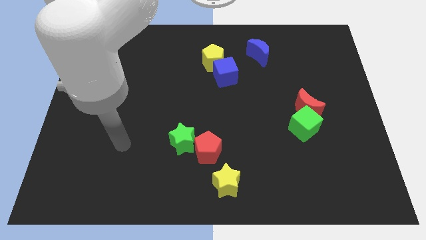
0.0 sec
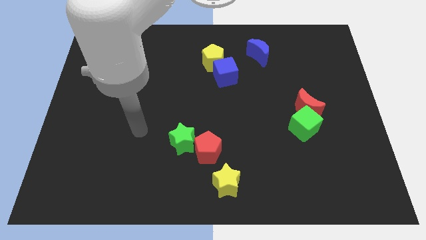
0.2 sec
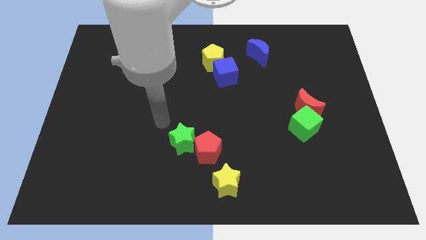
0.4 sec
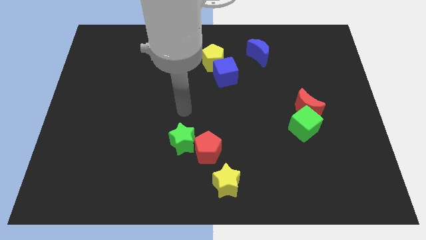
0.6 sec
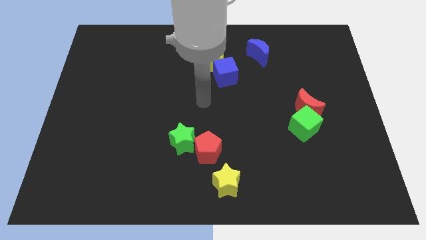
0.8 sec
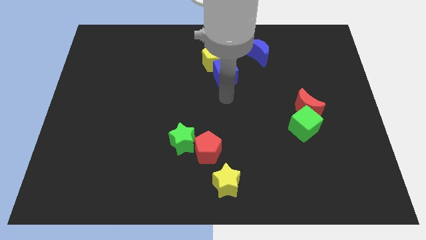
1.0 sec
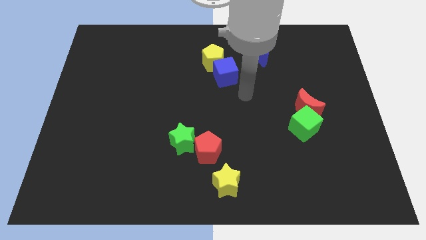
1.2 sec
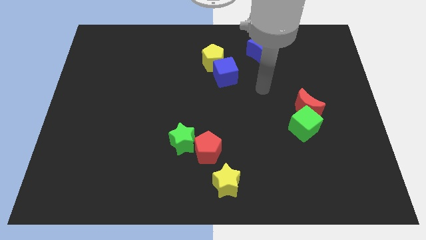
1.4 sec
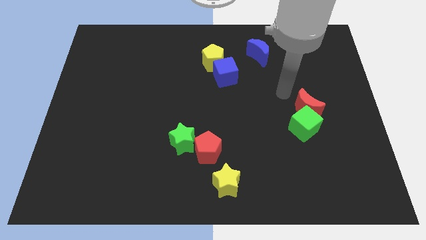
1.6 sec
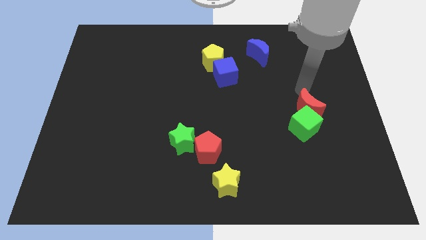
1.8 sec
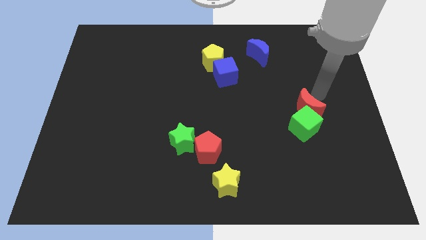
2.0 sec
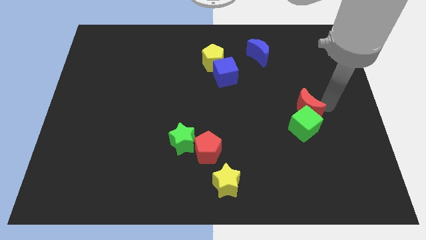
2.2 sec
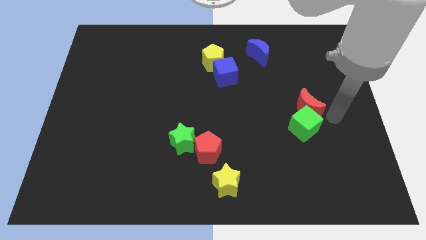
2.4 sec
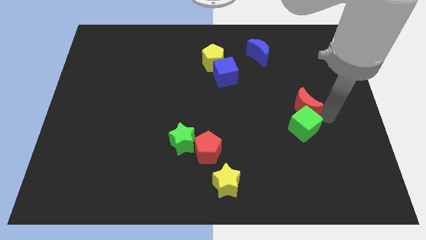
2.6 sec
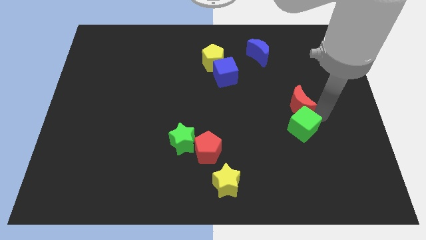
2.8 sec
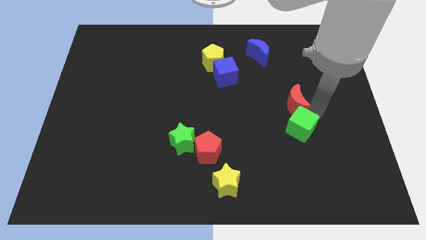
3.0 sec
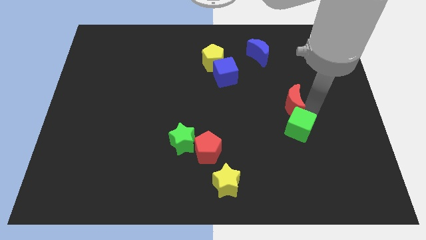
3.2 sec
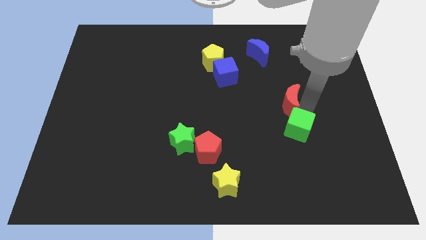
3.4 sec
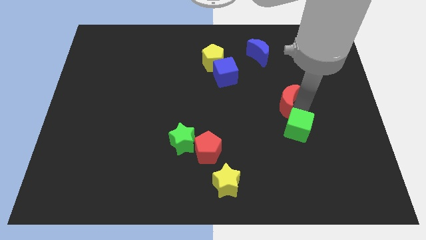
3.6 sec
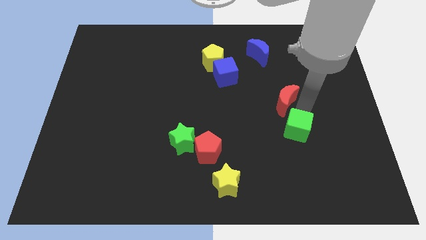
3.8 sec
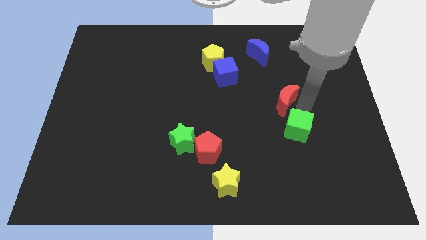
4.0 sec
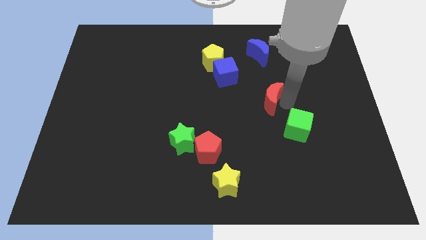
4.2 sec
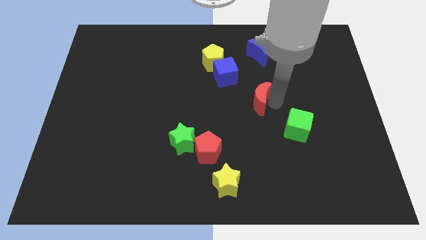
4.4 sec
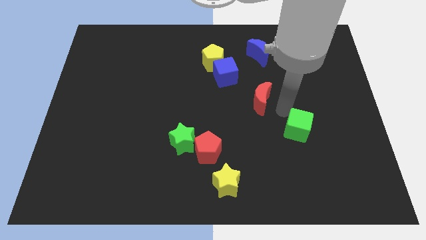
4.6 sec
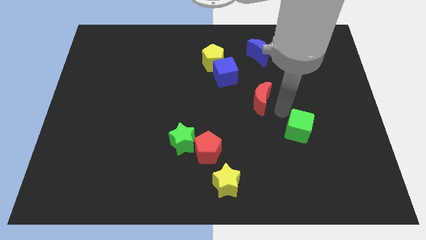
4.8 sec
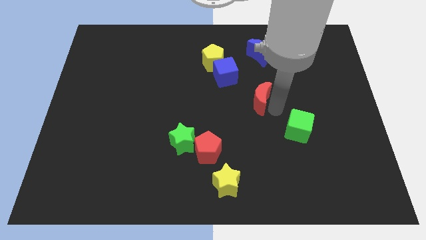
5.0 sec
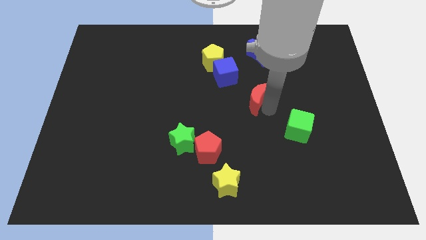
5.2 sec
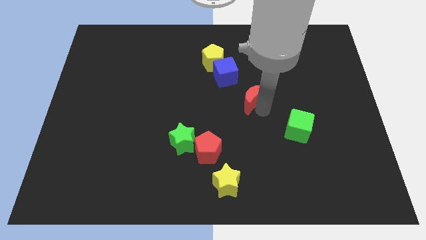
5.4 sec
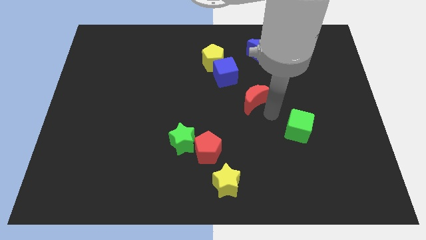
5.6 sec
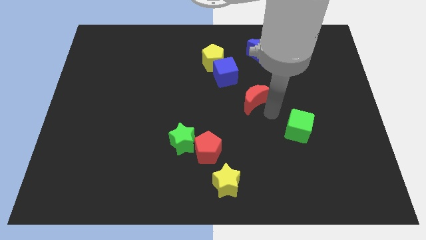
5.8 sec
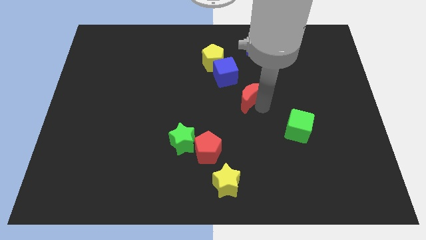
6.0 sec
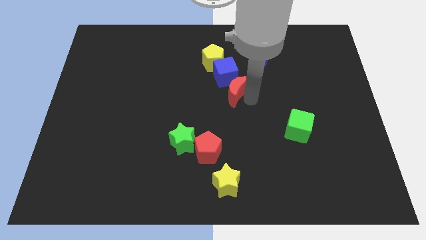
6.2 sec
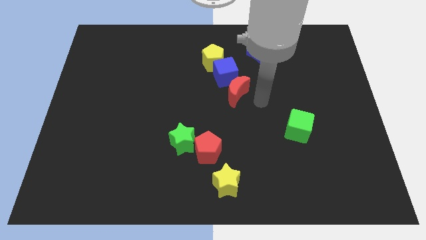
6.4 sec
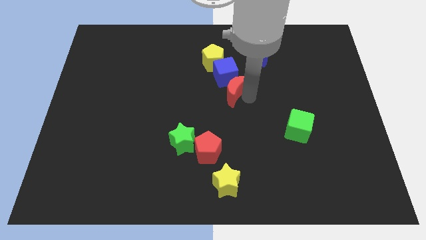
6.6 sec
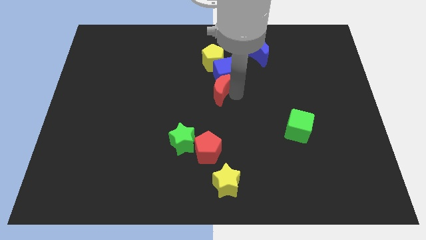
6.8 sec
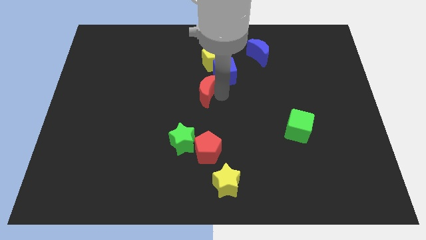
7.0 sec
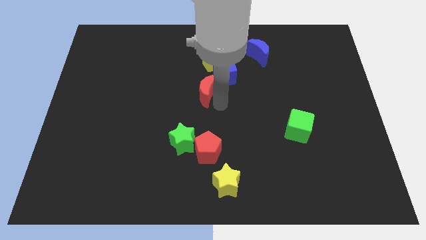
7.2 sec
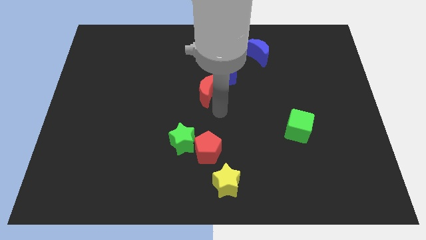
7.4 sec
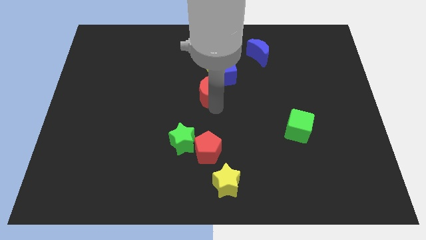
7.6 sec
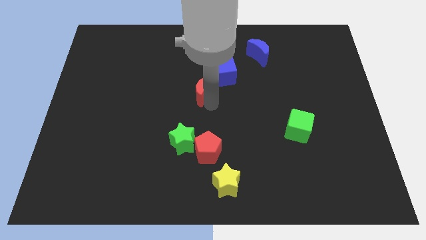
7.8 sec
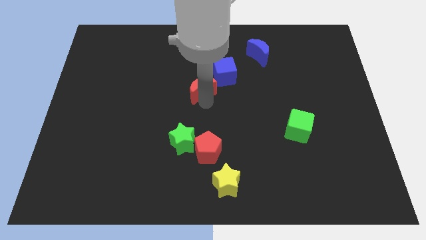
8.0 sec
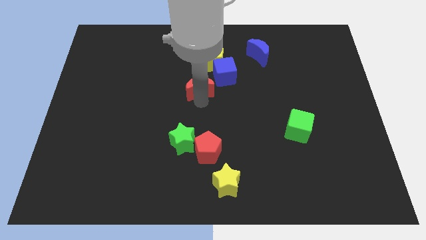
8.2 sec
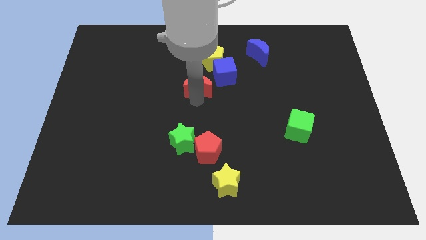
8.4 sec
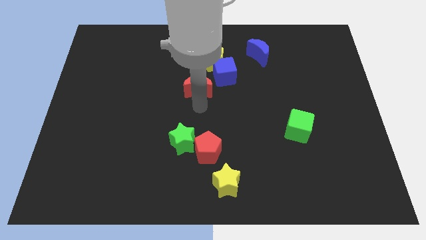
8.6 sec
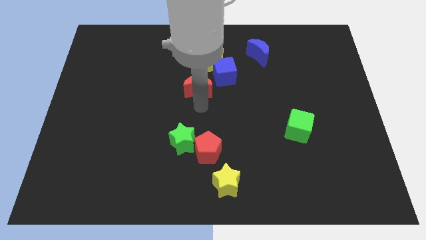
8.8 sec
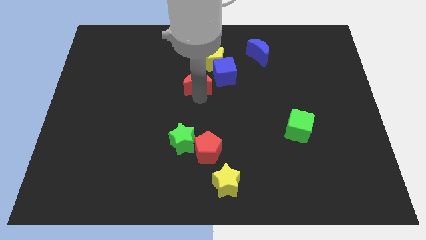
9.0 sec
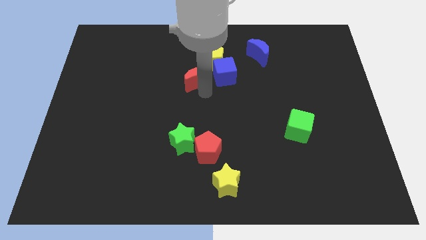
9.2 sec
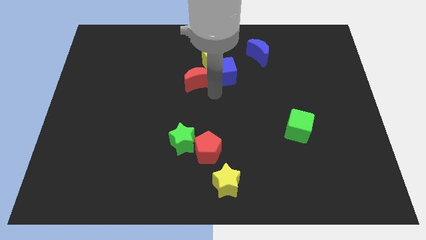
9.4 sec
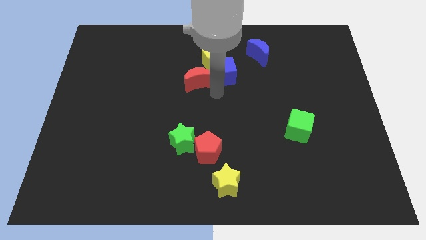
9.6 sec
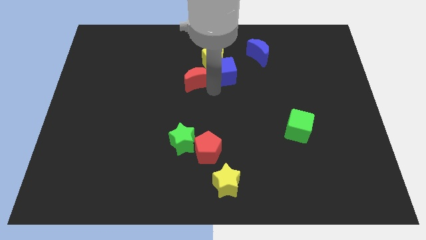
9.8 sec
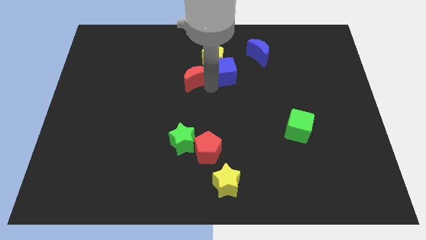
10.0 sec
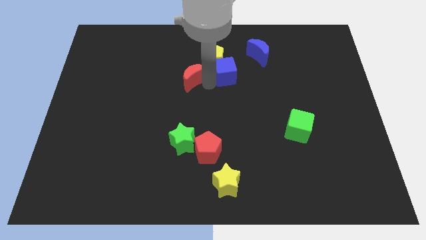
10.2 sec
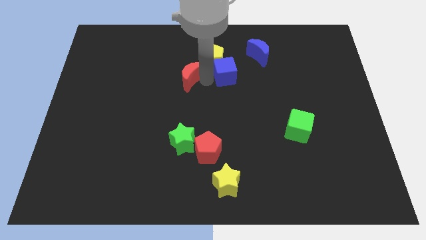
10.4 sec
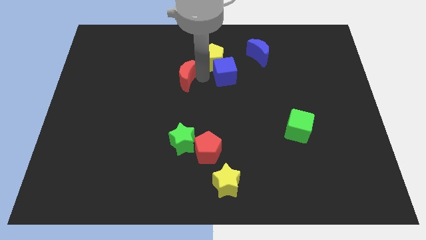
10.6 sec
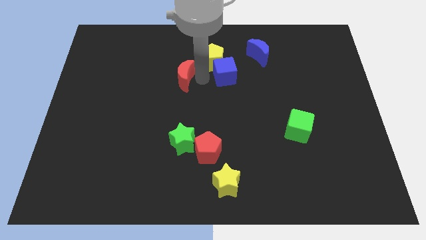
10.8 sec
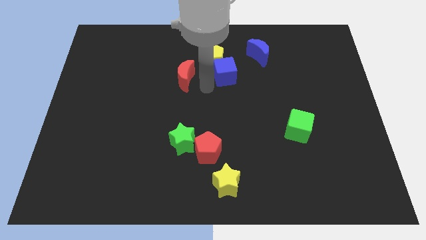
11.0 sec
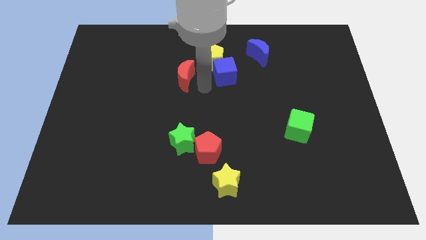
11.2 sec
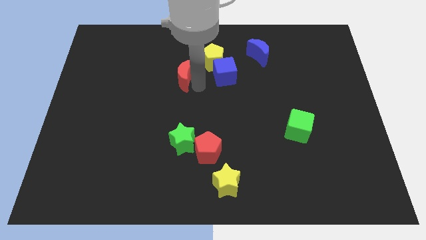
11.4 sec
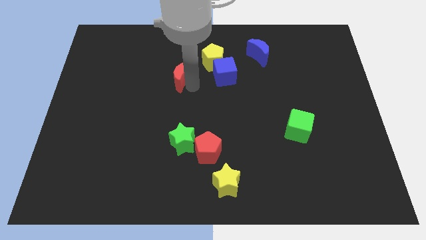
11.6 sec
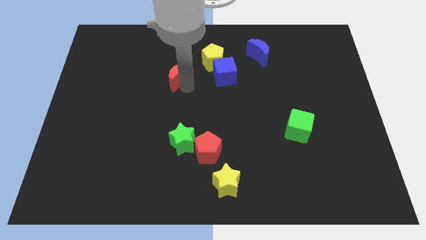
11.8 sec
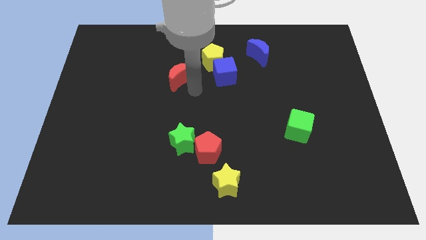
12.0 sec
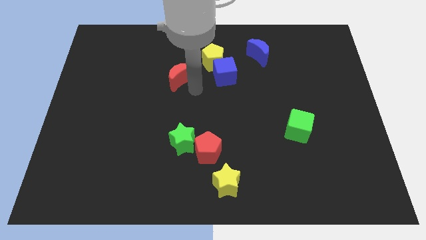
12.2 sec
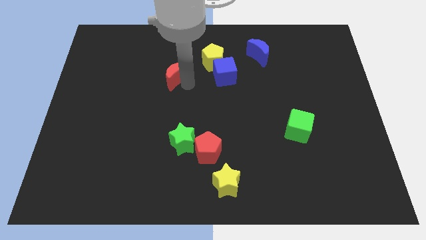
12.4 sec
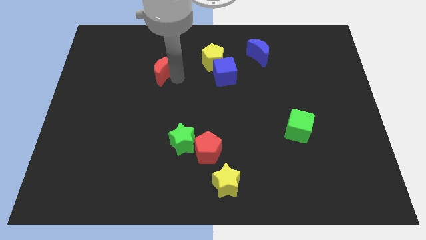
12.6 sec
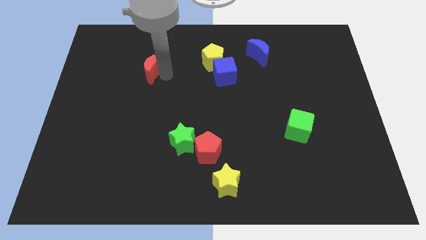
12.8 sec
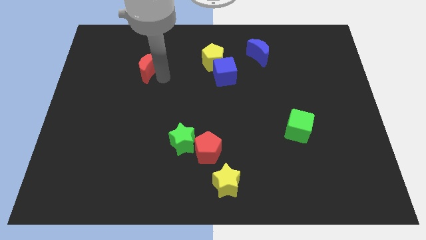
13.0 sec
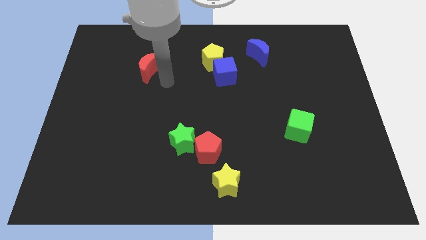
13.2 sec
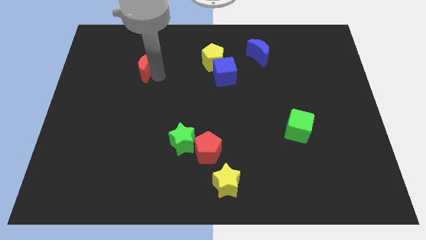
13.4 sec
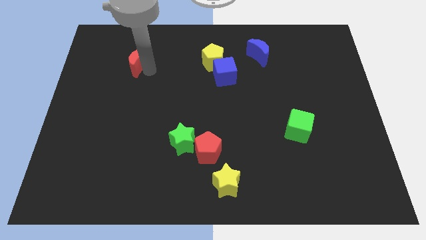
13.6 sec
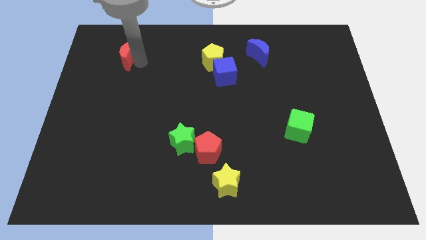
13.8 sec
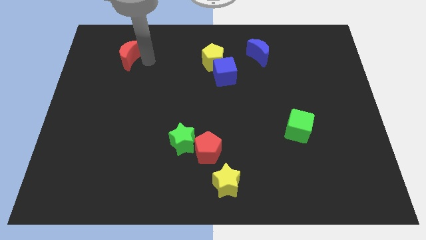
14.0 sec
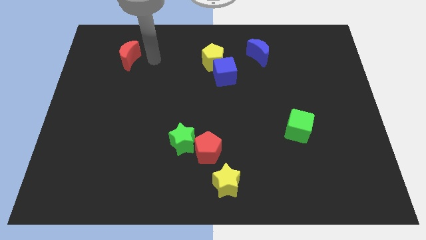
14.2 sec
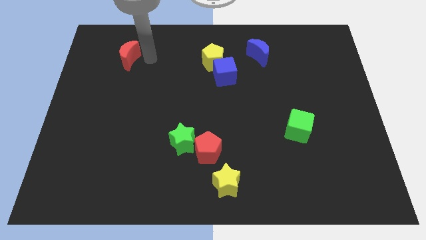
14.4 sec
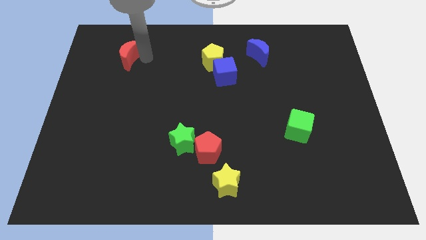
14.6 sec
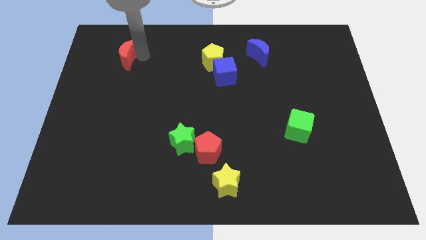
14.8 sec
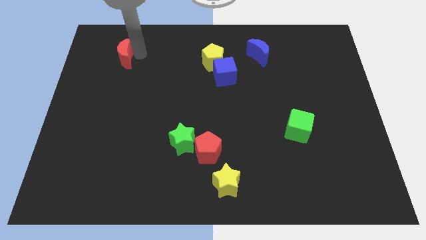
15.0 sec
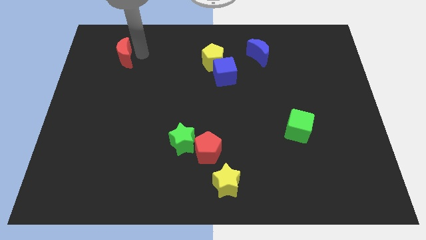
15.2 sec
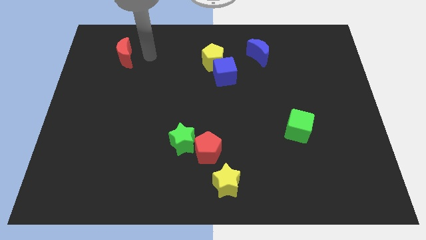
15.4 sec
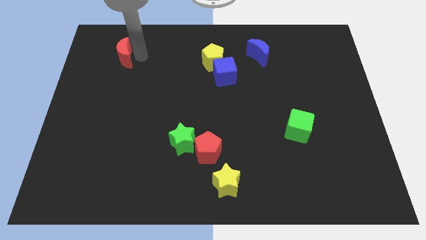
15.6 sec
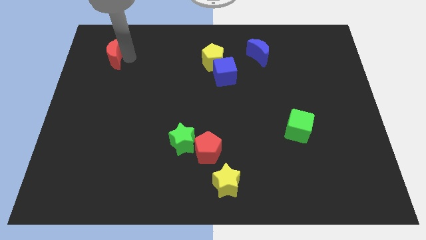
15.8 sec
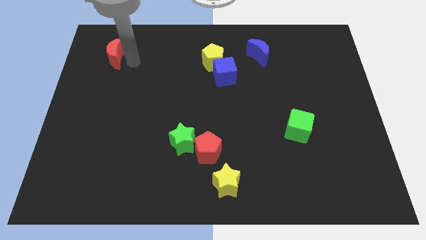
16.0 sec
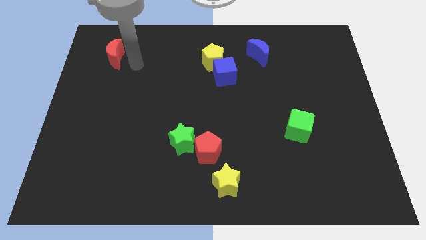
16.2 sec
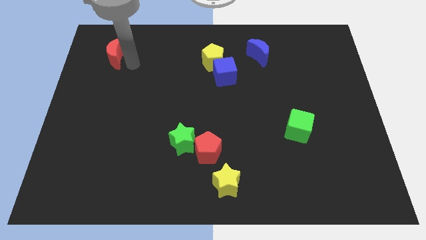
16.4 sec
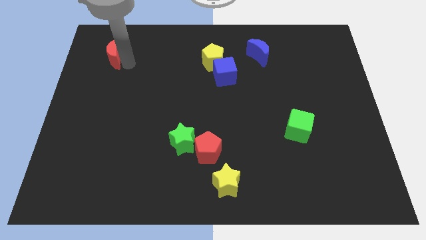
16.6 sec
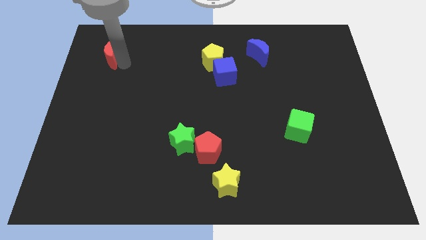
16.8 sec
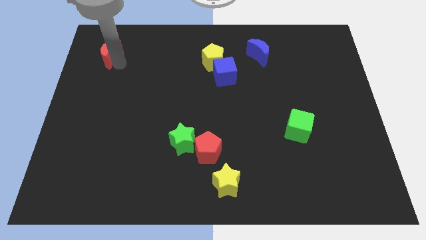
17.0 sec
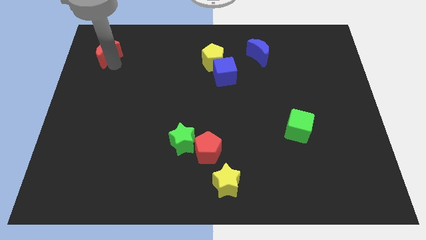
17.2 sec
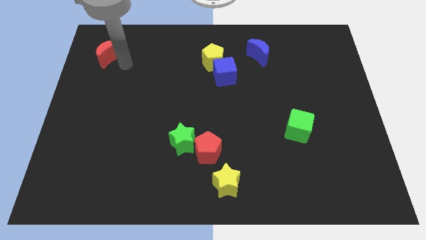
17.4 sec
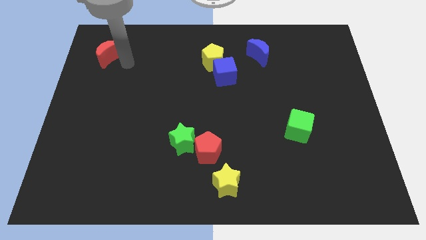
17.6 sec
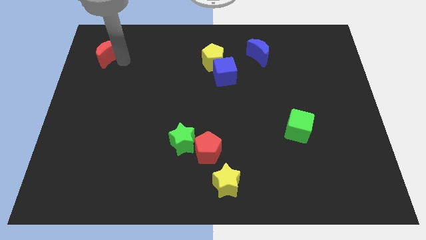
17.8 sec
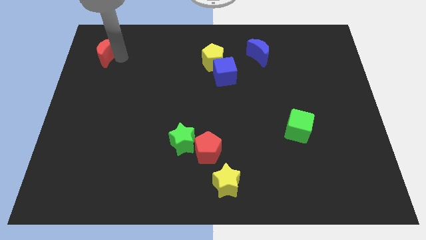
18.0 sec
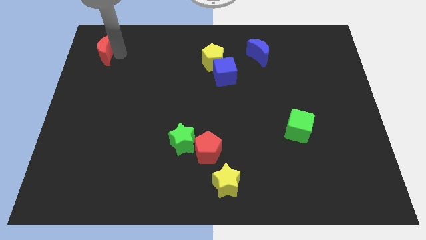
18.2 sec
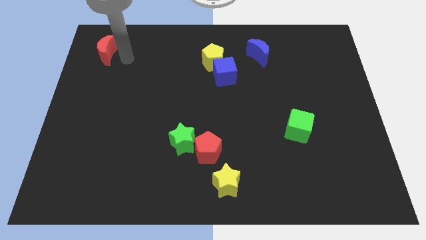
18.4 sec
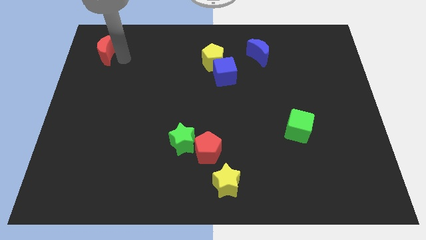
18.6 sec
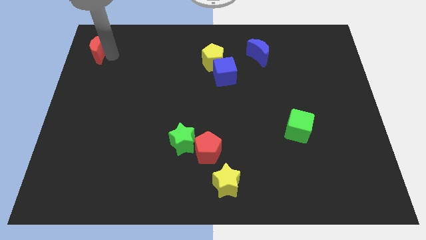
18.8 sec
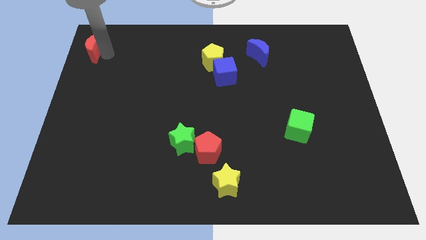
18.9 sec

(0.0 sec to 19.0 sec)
slide the red moon to the top left
